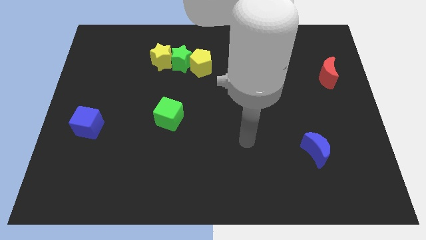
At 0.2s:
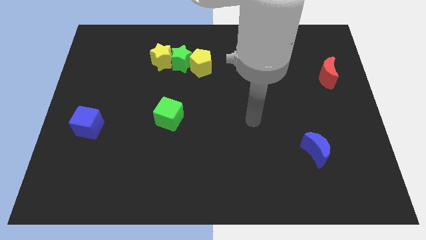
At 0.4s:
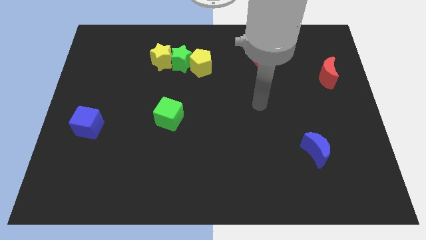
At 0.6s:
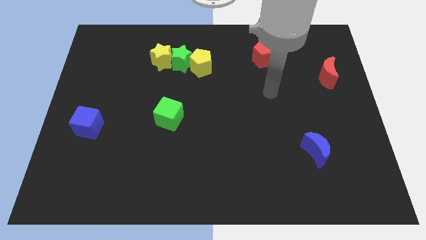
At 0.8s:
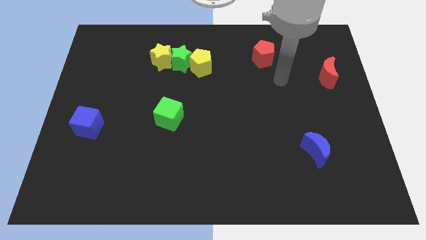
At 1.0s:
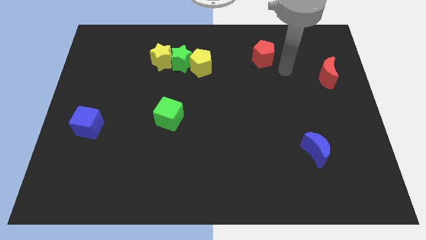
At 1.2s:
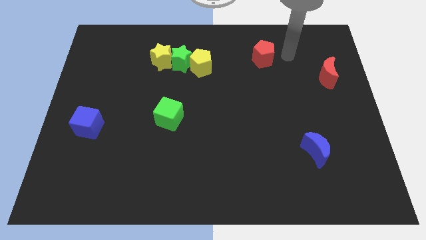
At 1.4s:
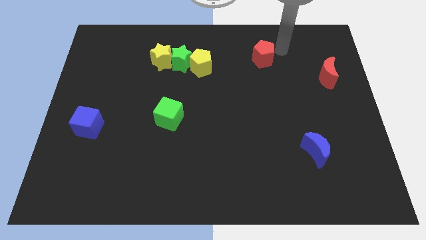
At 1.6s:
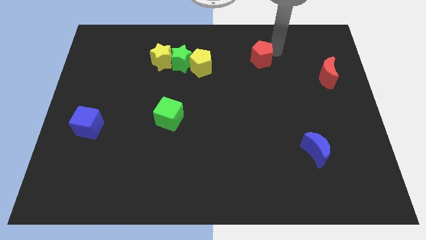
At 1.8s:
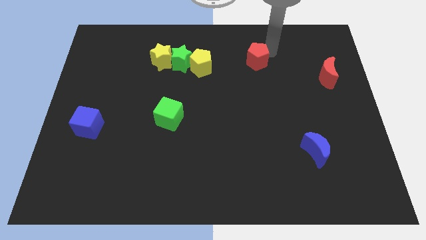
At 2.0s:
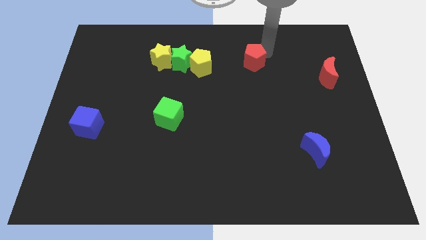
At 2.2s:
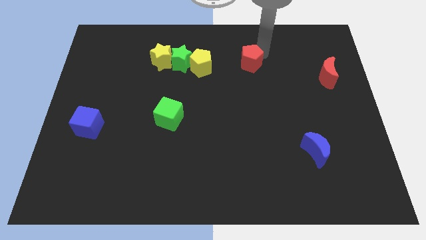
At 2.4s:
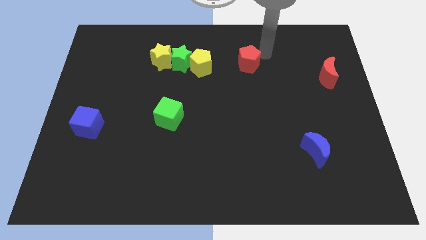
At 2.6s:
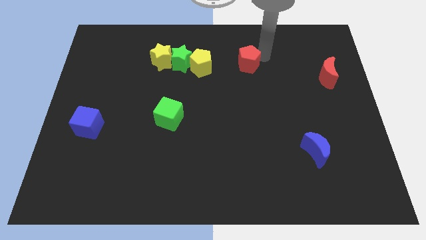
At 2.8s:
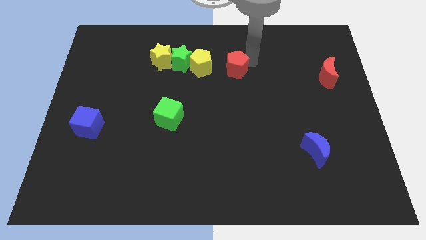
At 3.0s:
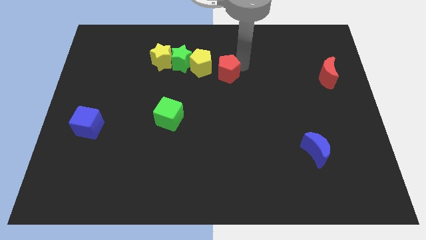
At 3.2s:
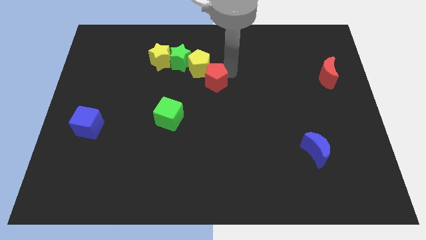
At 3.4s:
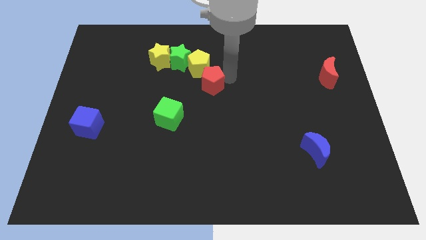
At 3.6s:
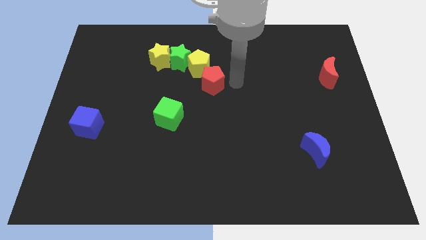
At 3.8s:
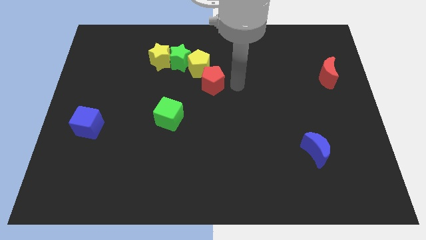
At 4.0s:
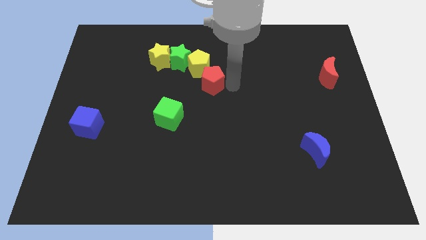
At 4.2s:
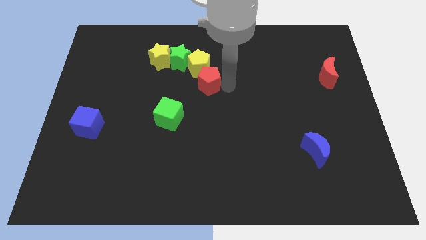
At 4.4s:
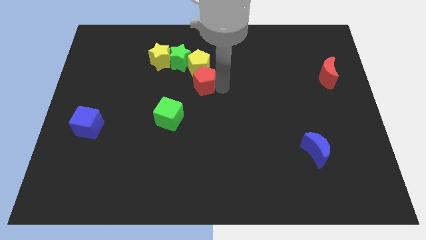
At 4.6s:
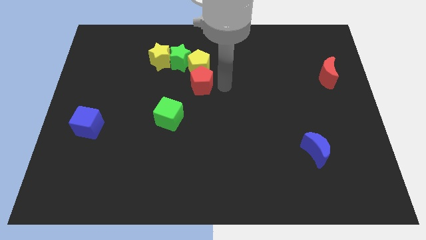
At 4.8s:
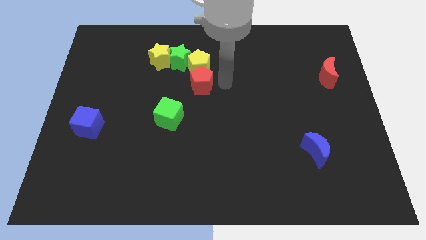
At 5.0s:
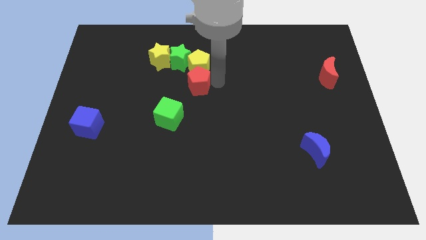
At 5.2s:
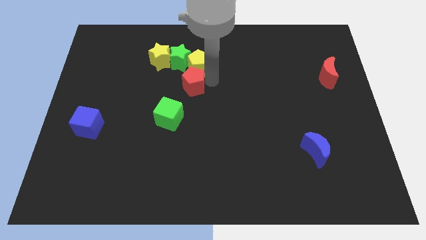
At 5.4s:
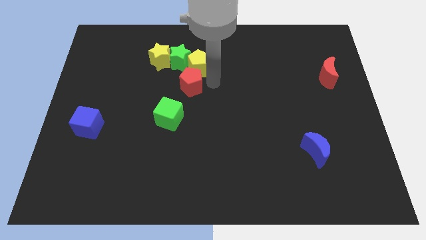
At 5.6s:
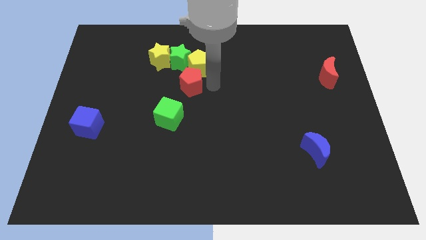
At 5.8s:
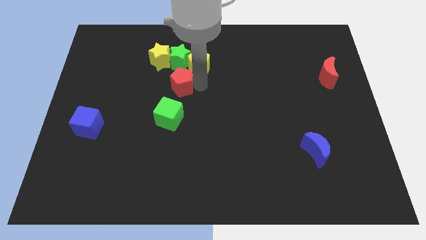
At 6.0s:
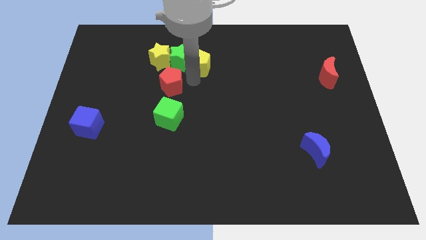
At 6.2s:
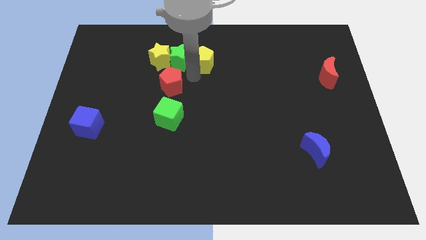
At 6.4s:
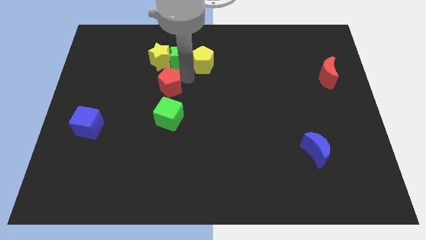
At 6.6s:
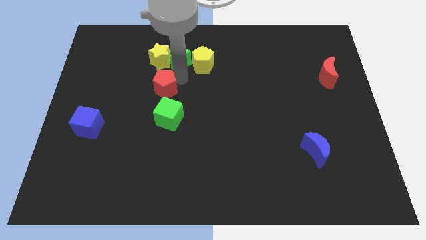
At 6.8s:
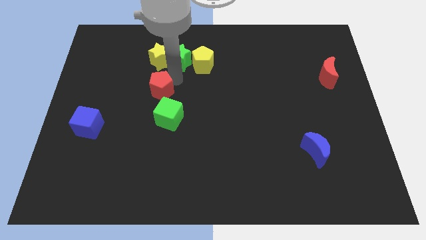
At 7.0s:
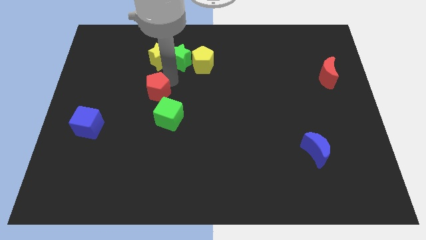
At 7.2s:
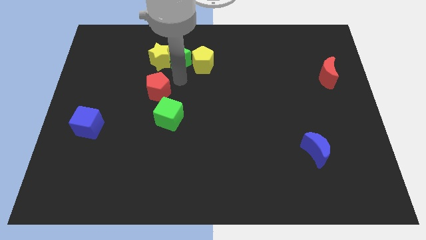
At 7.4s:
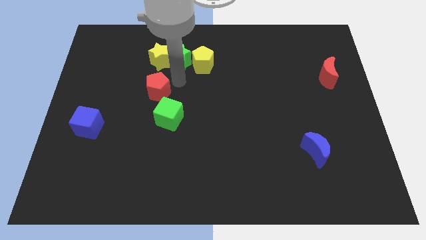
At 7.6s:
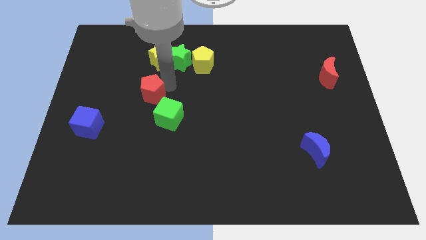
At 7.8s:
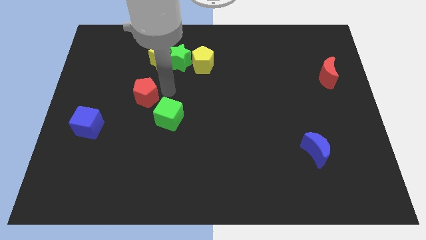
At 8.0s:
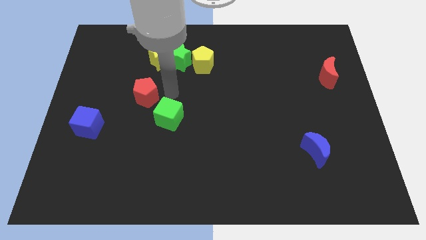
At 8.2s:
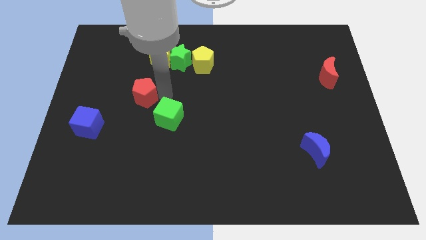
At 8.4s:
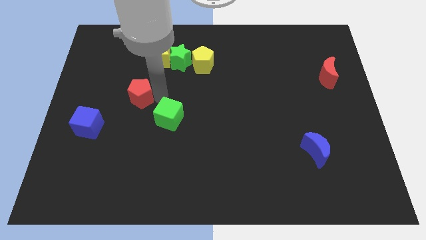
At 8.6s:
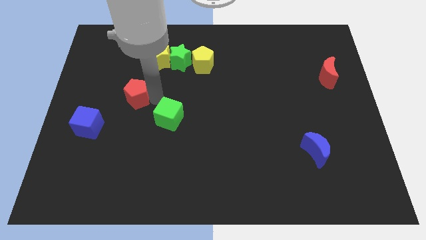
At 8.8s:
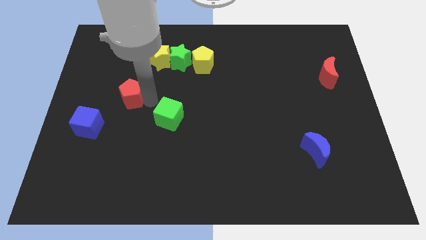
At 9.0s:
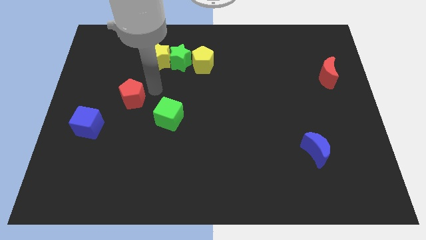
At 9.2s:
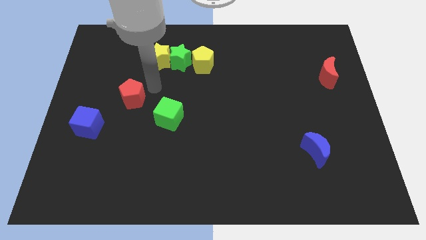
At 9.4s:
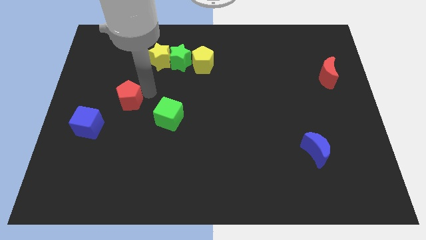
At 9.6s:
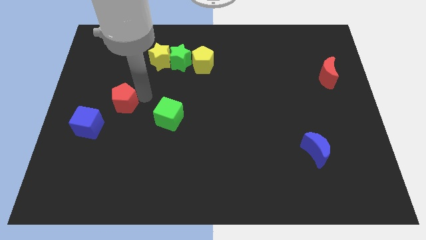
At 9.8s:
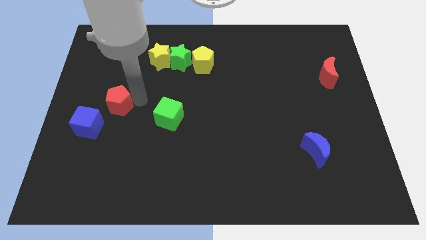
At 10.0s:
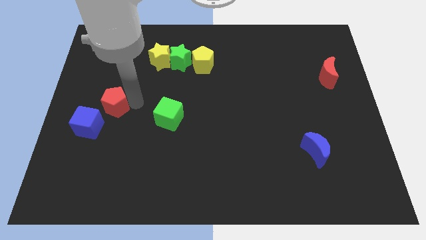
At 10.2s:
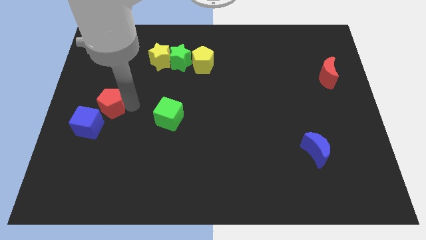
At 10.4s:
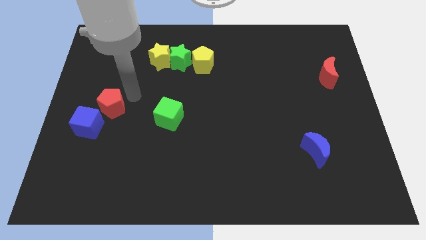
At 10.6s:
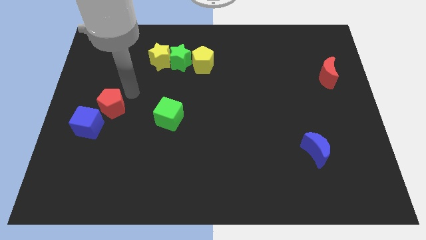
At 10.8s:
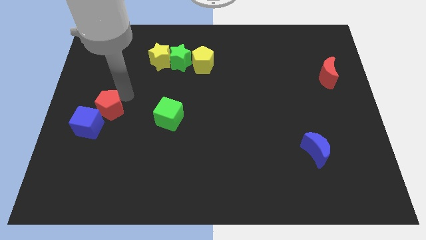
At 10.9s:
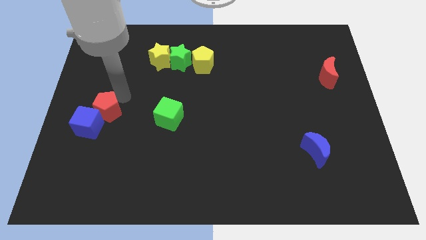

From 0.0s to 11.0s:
put the red pentagon towards the blue cube

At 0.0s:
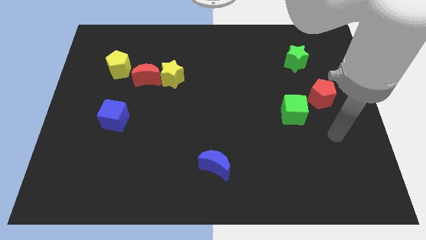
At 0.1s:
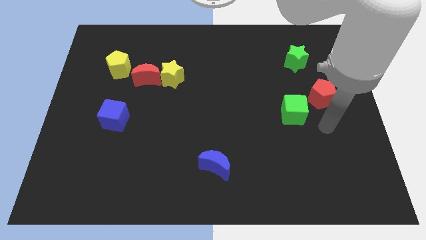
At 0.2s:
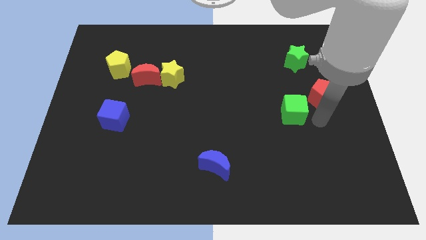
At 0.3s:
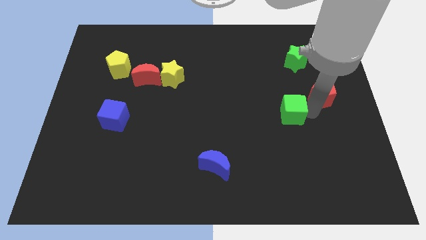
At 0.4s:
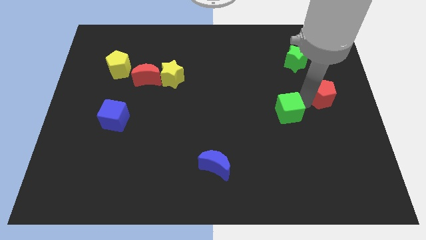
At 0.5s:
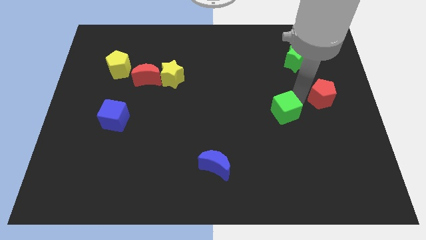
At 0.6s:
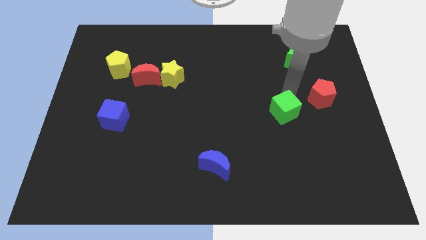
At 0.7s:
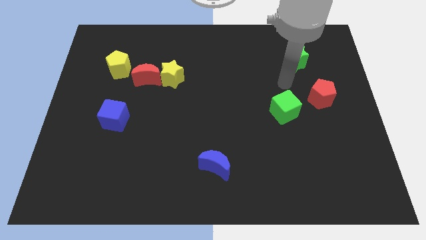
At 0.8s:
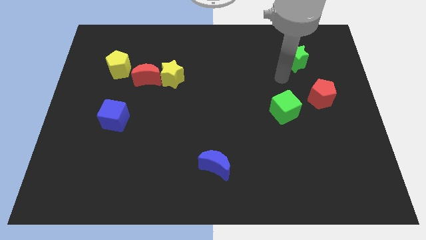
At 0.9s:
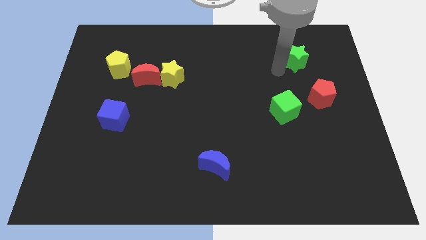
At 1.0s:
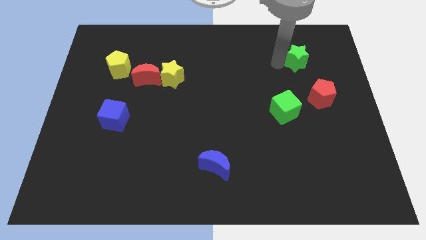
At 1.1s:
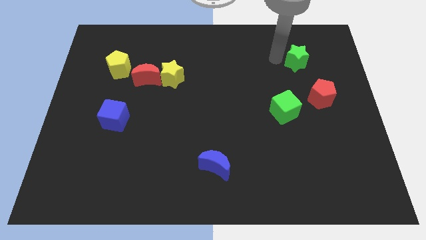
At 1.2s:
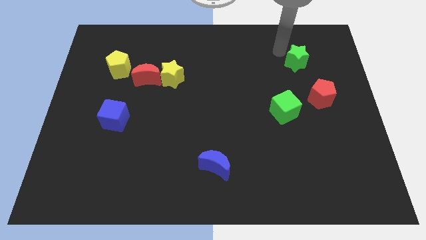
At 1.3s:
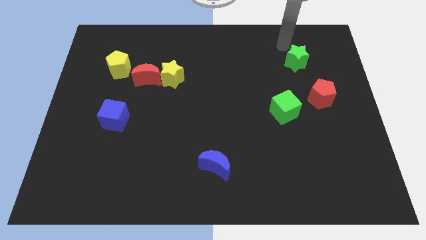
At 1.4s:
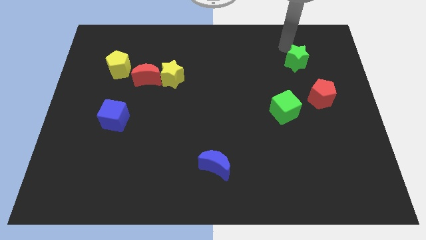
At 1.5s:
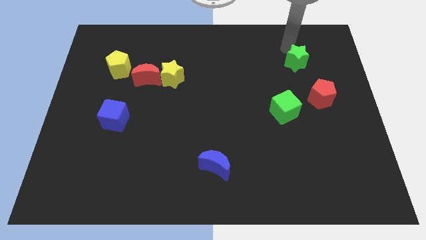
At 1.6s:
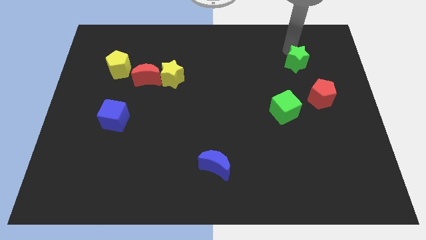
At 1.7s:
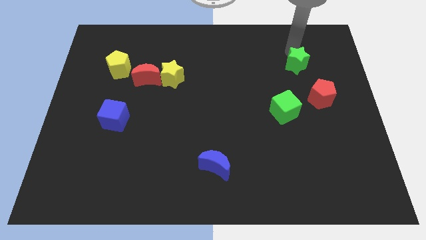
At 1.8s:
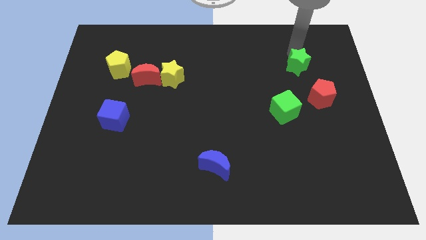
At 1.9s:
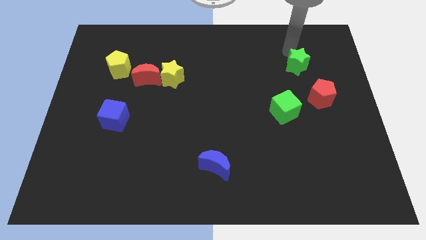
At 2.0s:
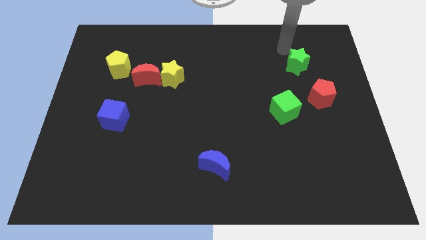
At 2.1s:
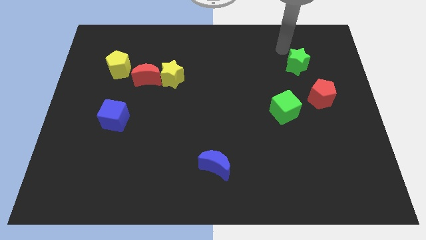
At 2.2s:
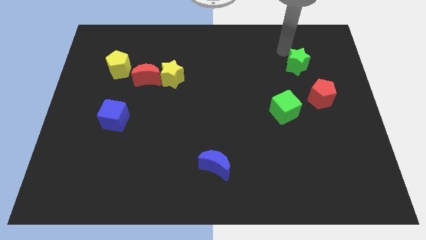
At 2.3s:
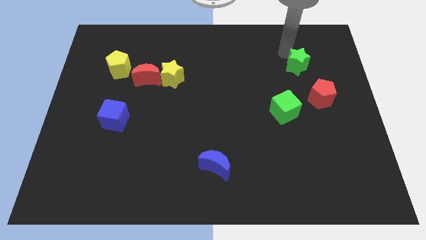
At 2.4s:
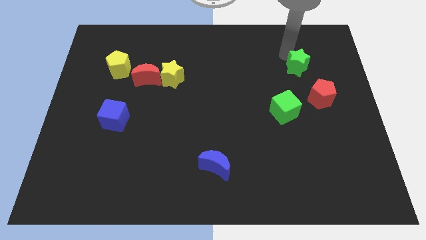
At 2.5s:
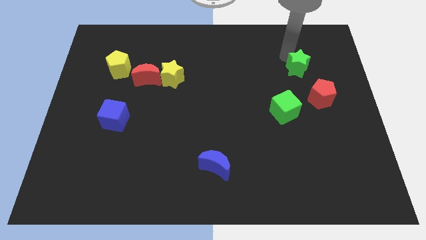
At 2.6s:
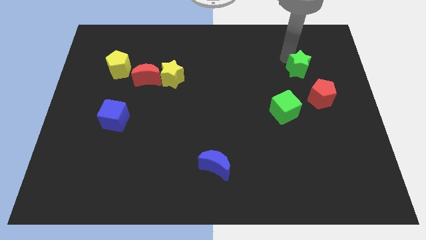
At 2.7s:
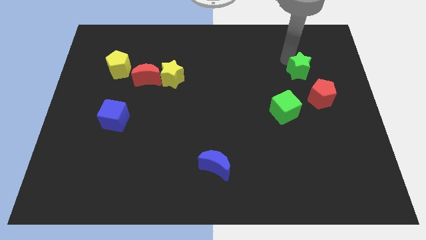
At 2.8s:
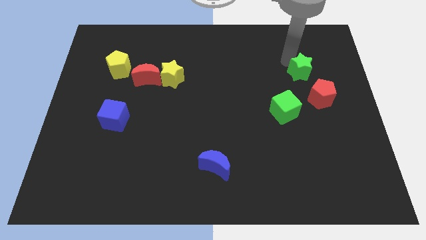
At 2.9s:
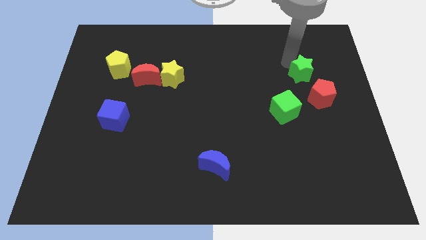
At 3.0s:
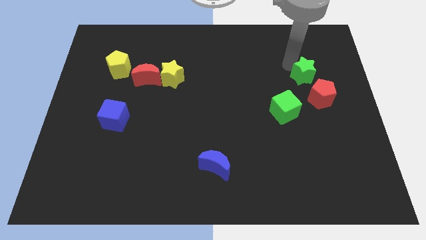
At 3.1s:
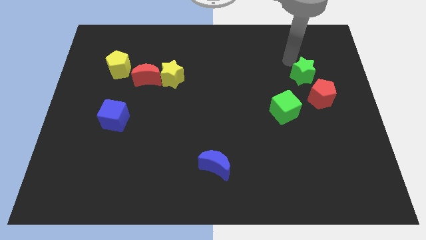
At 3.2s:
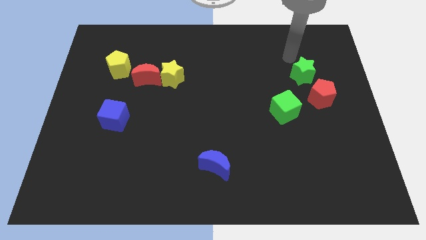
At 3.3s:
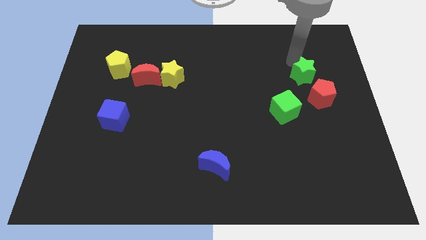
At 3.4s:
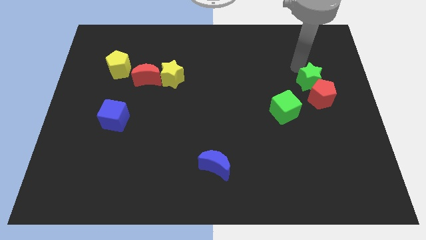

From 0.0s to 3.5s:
slide the green star to the red pentagon
